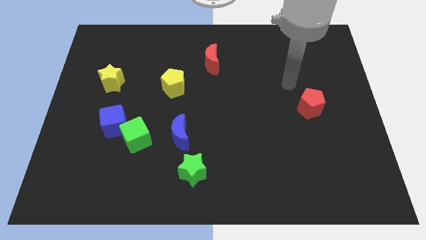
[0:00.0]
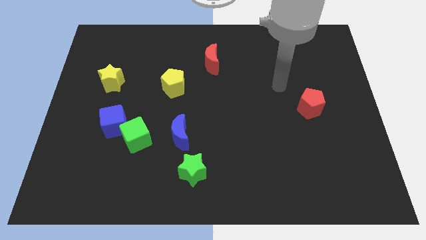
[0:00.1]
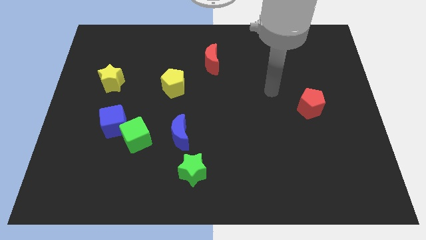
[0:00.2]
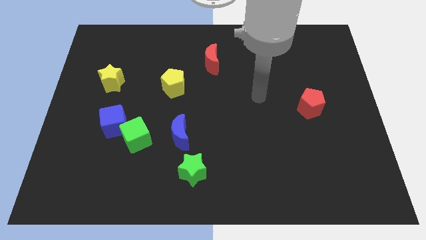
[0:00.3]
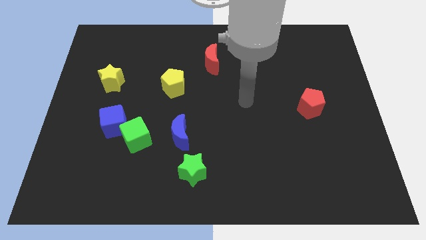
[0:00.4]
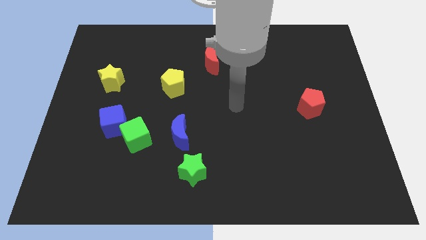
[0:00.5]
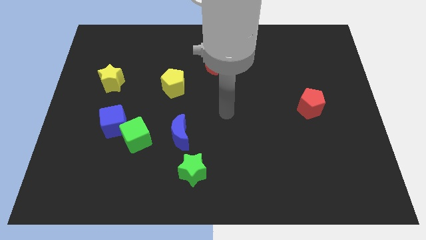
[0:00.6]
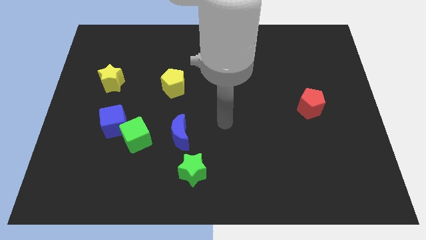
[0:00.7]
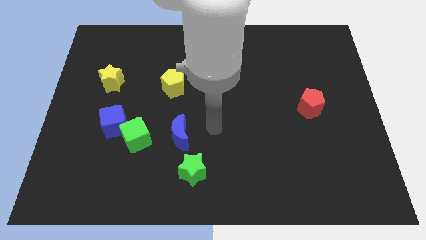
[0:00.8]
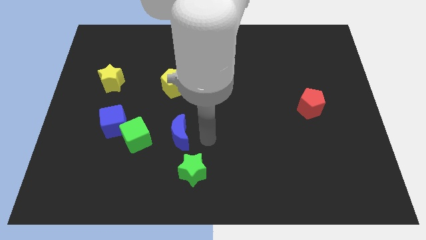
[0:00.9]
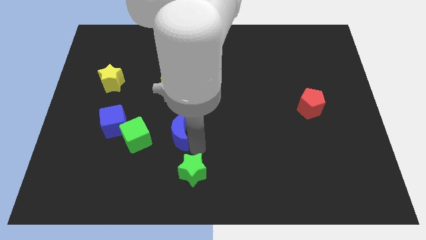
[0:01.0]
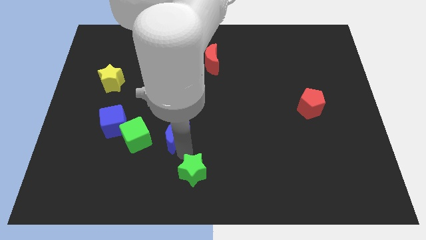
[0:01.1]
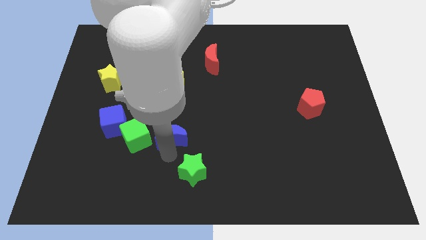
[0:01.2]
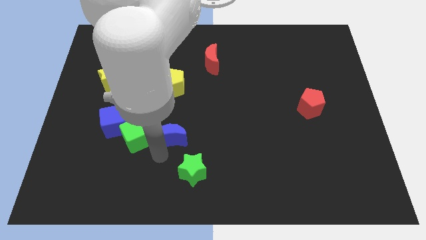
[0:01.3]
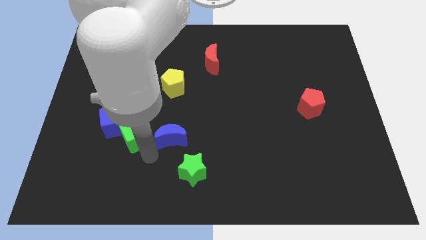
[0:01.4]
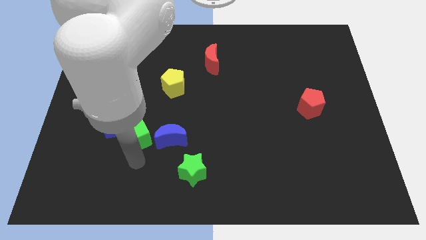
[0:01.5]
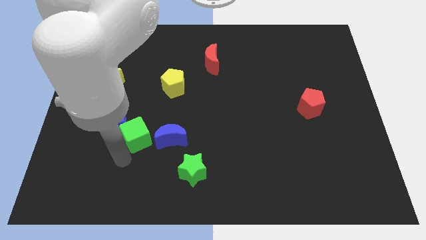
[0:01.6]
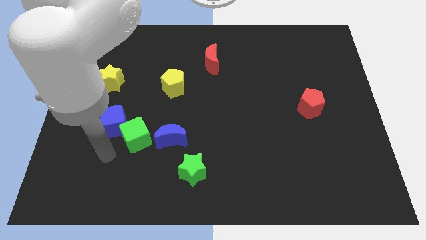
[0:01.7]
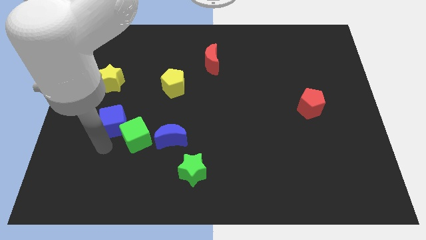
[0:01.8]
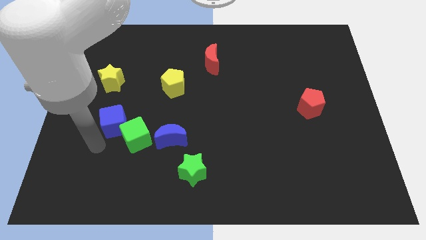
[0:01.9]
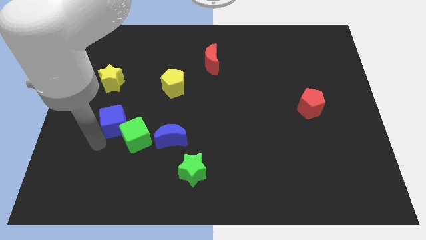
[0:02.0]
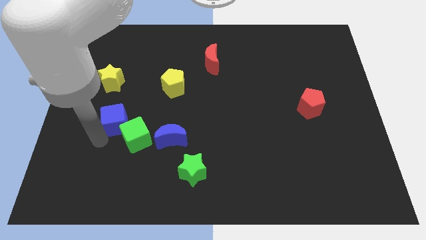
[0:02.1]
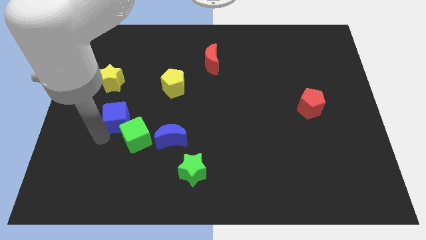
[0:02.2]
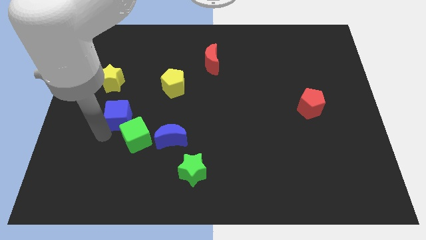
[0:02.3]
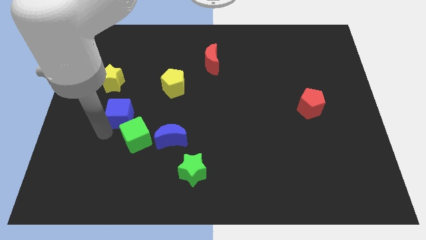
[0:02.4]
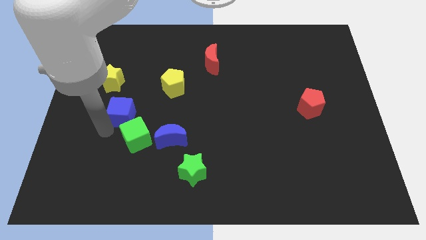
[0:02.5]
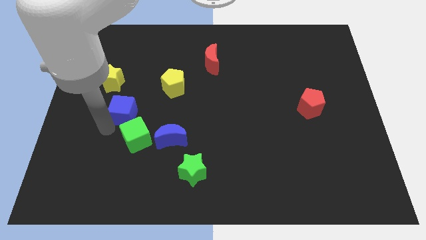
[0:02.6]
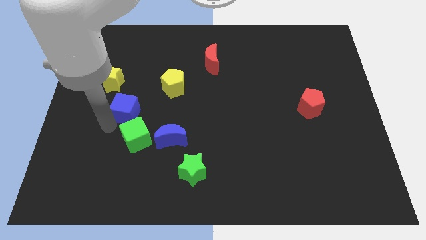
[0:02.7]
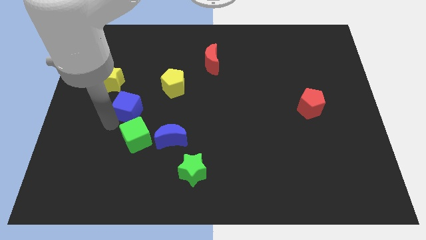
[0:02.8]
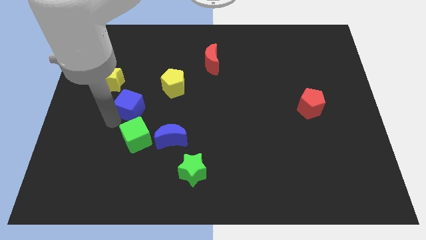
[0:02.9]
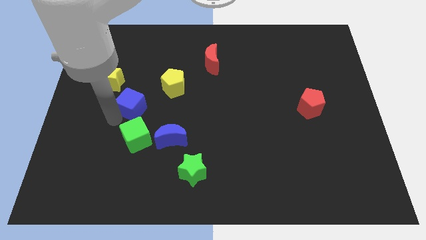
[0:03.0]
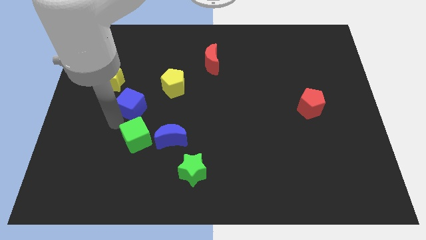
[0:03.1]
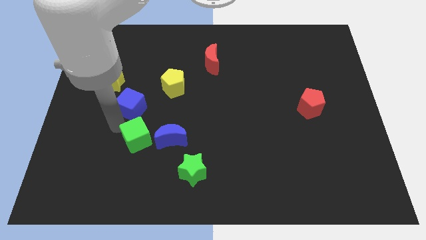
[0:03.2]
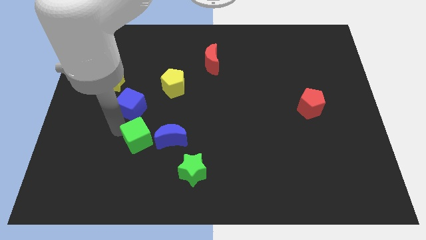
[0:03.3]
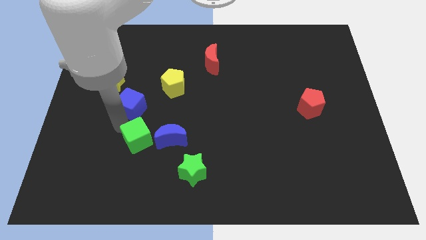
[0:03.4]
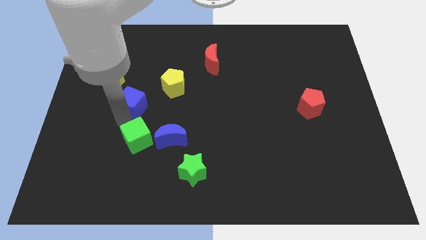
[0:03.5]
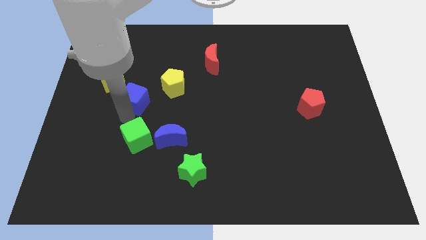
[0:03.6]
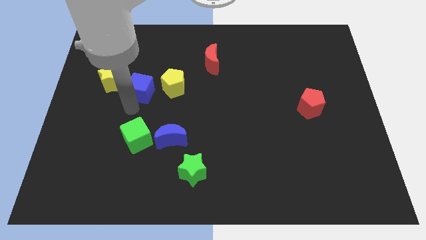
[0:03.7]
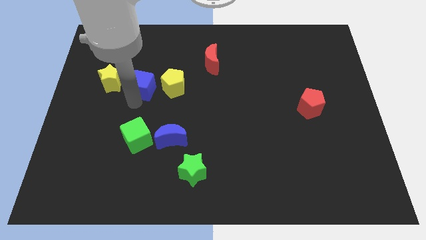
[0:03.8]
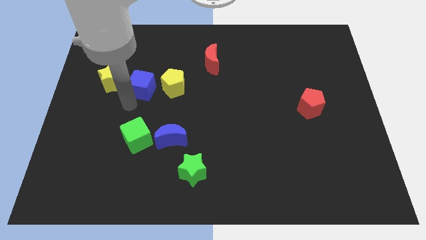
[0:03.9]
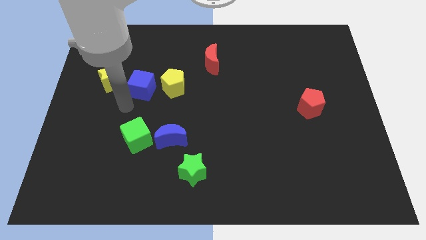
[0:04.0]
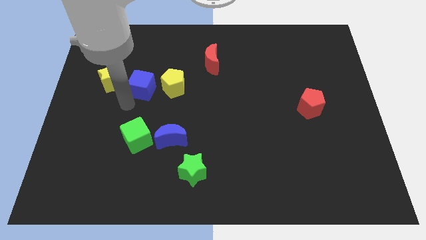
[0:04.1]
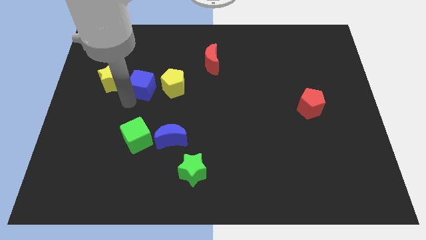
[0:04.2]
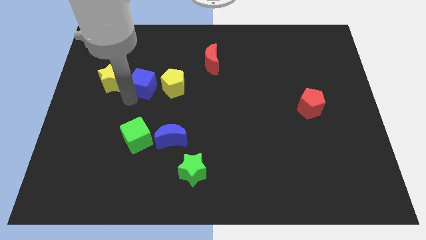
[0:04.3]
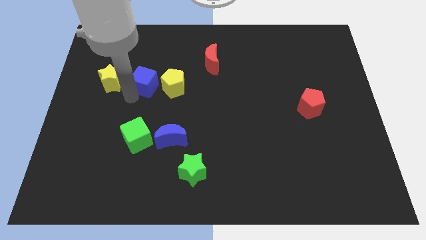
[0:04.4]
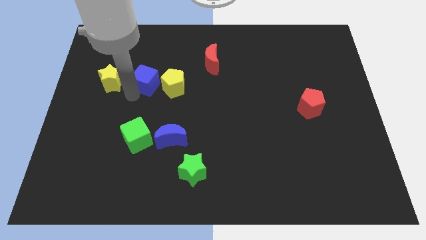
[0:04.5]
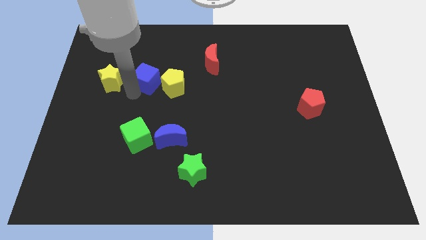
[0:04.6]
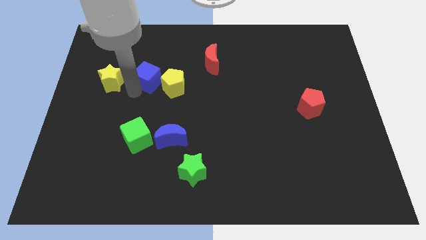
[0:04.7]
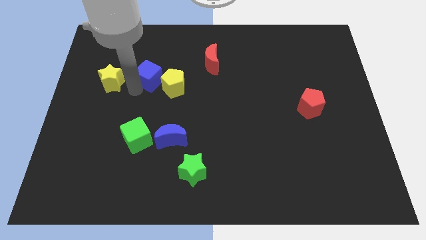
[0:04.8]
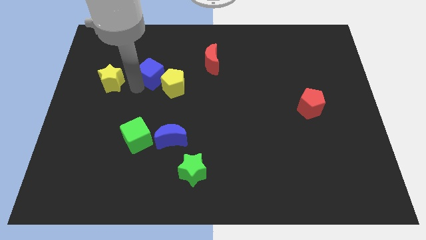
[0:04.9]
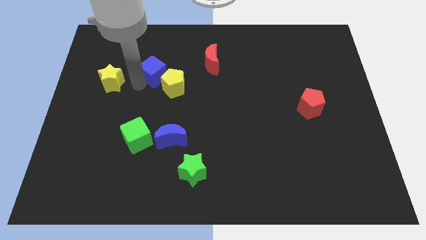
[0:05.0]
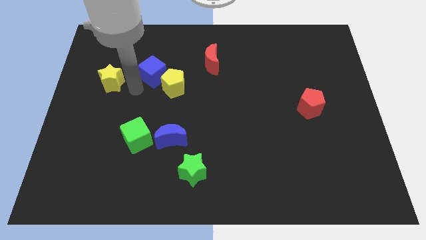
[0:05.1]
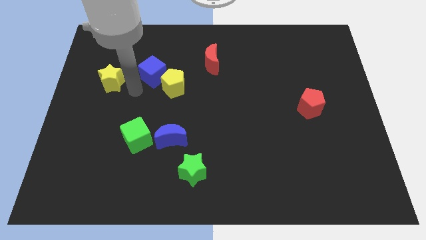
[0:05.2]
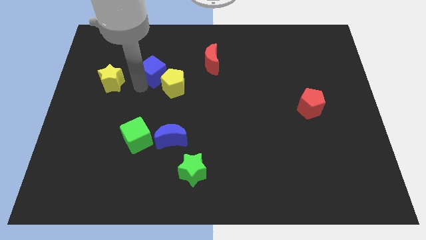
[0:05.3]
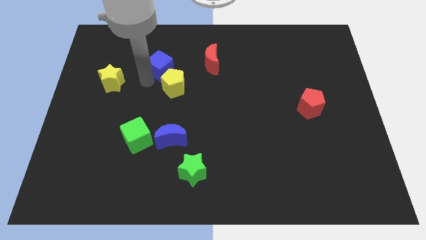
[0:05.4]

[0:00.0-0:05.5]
push the blue cube to the top side of the yellow pentagon

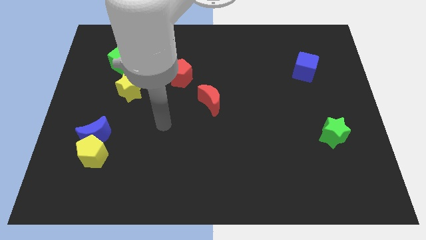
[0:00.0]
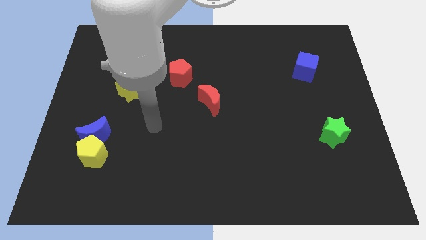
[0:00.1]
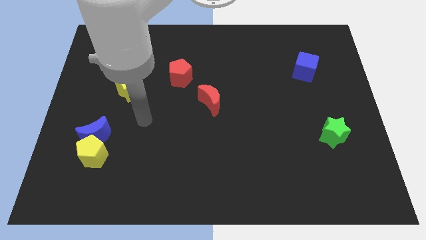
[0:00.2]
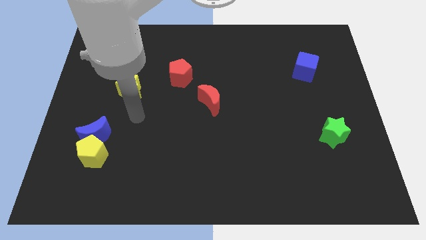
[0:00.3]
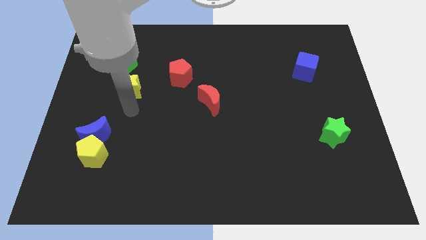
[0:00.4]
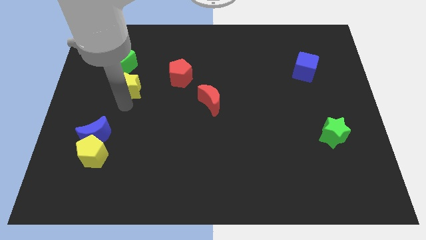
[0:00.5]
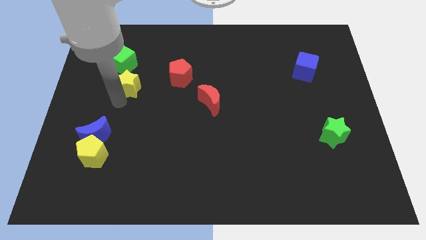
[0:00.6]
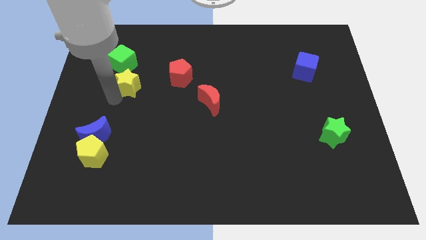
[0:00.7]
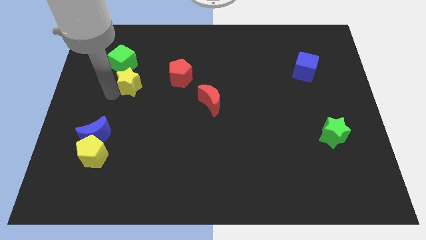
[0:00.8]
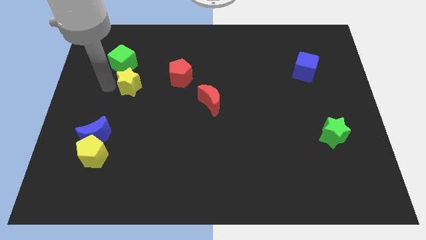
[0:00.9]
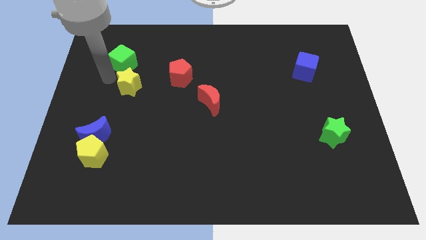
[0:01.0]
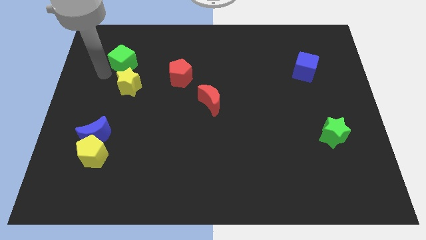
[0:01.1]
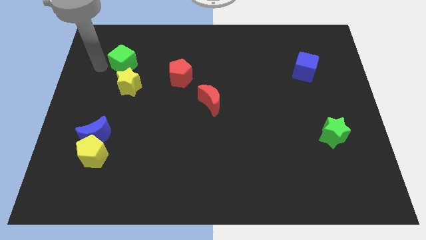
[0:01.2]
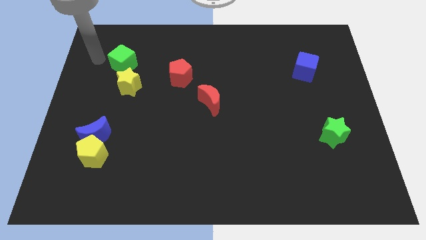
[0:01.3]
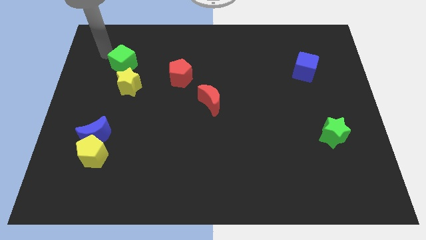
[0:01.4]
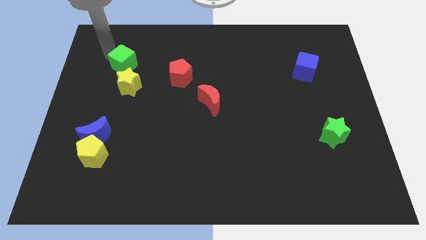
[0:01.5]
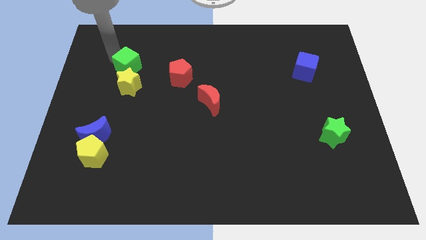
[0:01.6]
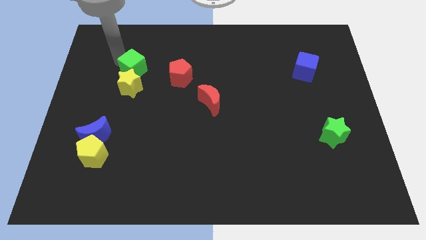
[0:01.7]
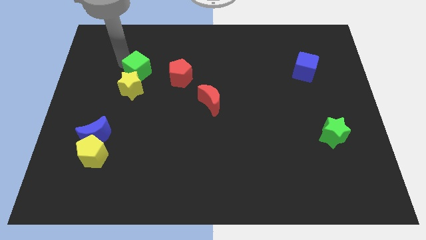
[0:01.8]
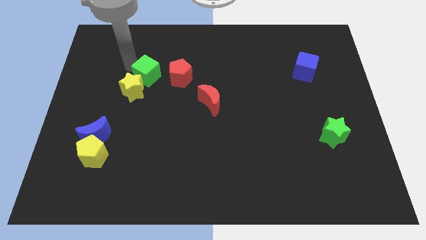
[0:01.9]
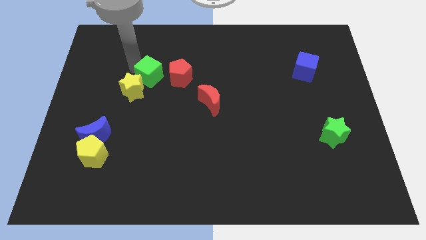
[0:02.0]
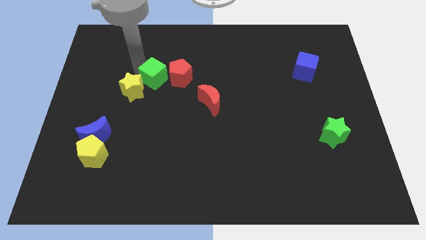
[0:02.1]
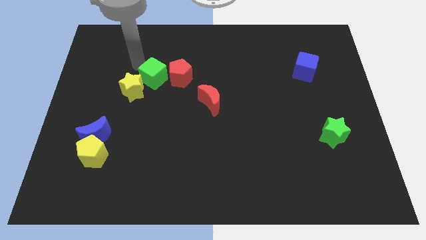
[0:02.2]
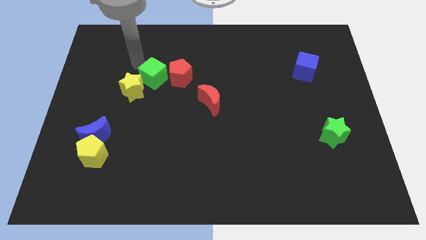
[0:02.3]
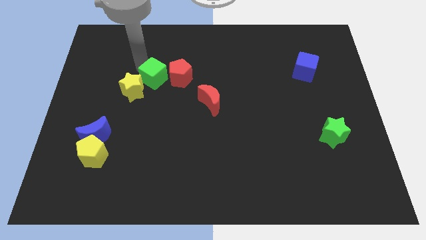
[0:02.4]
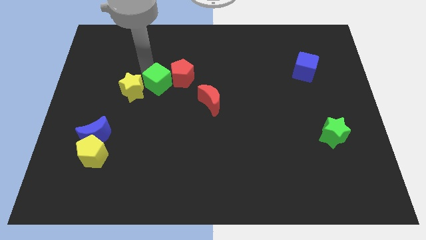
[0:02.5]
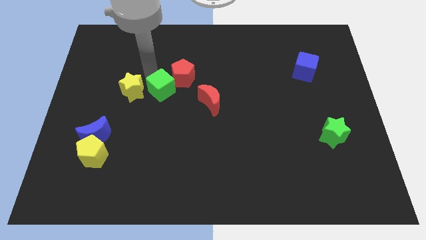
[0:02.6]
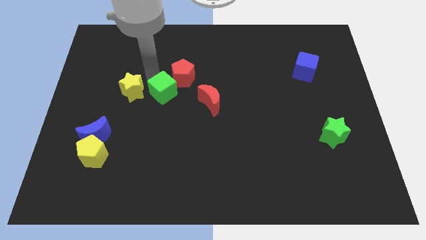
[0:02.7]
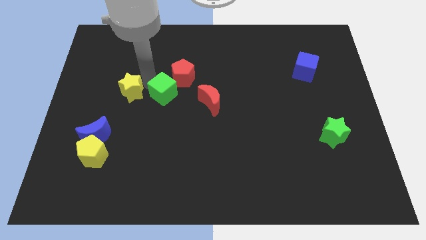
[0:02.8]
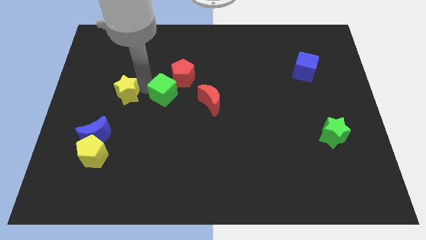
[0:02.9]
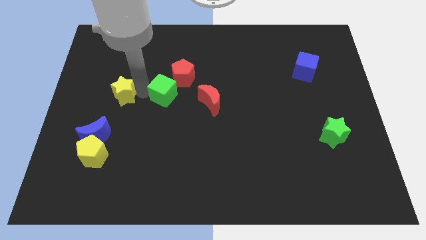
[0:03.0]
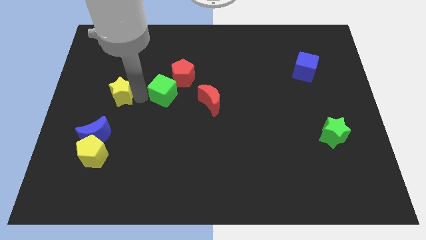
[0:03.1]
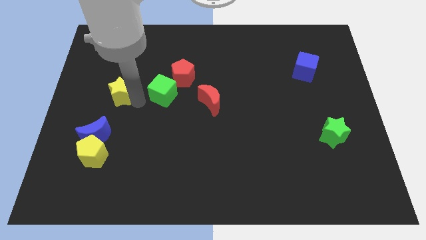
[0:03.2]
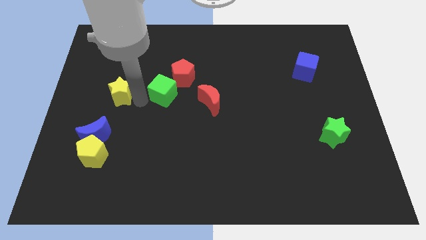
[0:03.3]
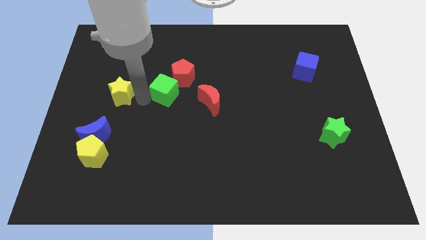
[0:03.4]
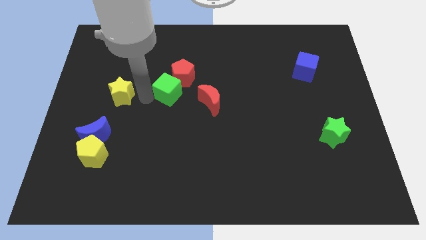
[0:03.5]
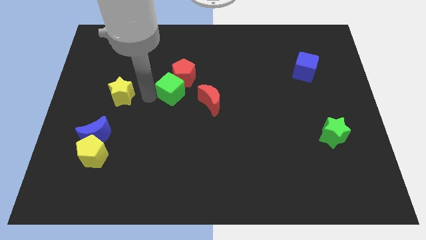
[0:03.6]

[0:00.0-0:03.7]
move the green cube to the top left side of the red moon
